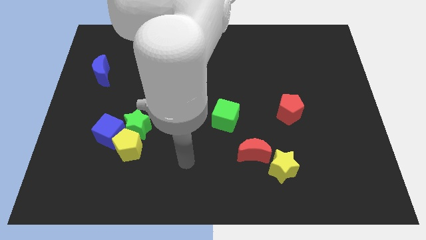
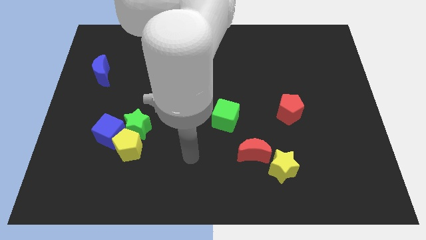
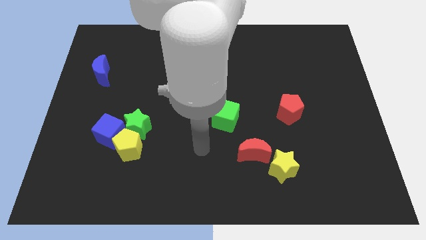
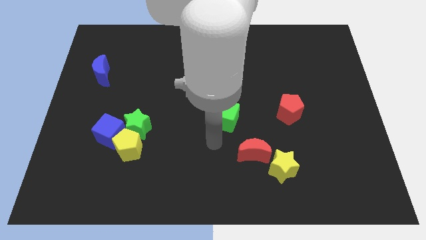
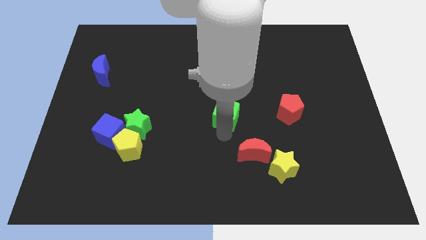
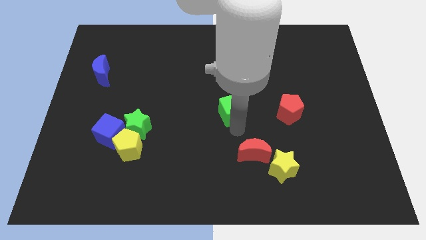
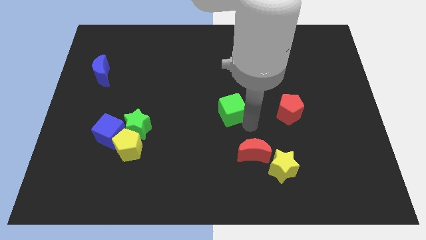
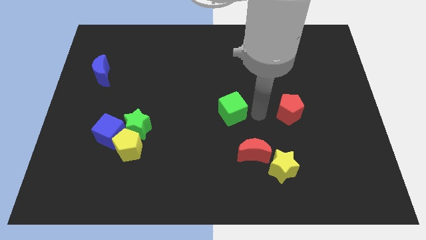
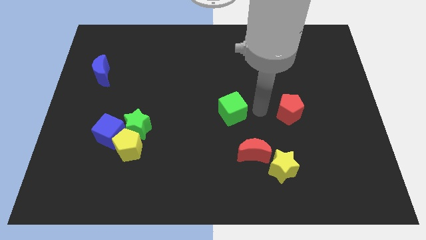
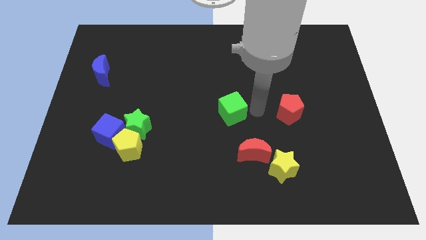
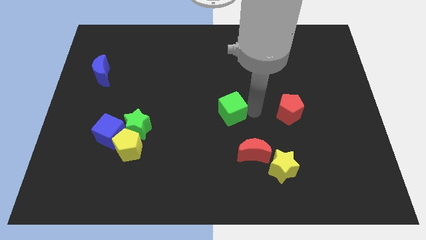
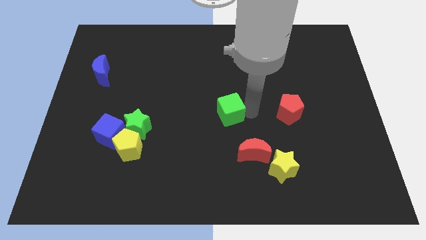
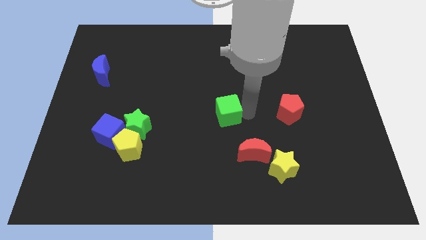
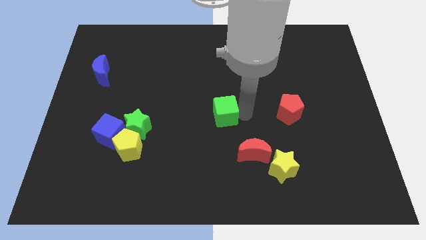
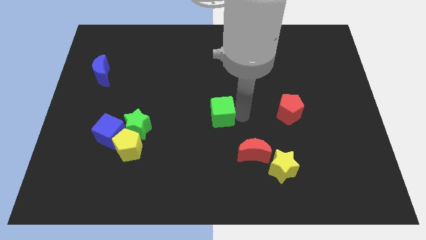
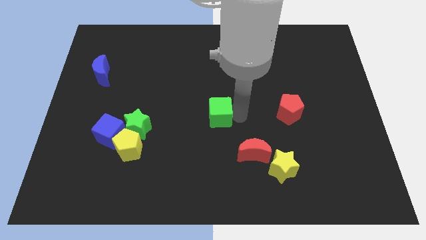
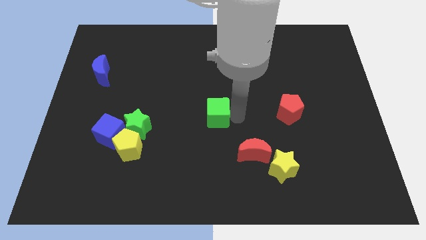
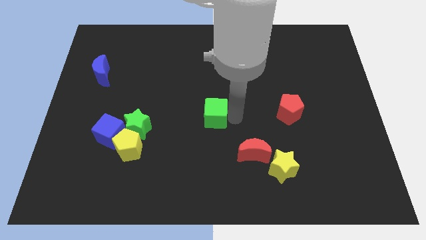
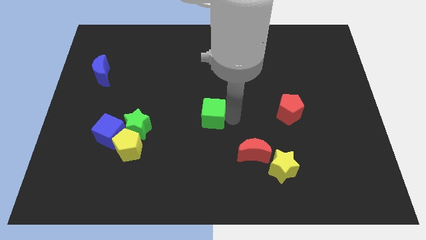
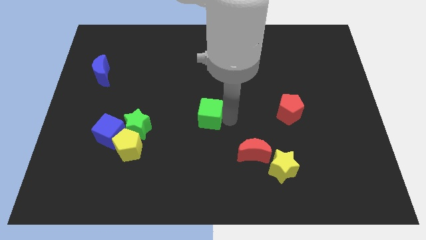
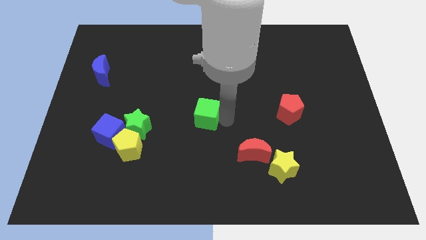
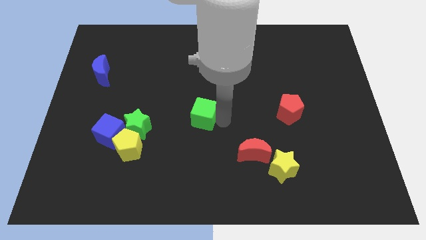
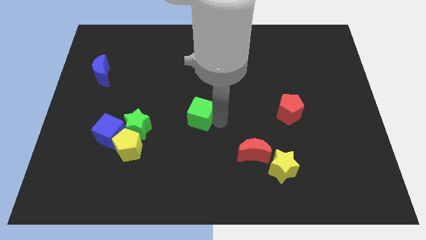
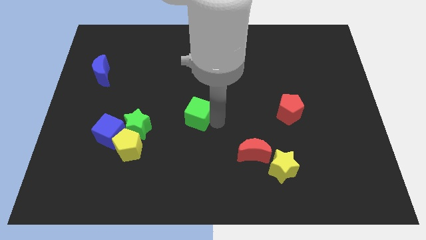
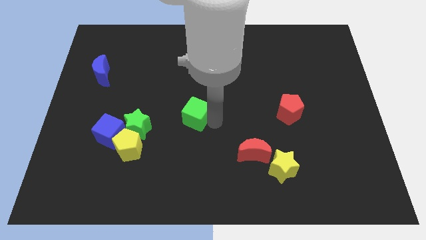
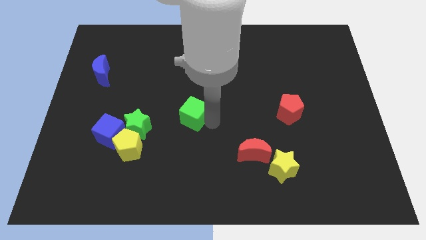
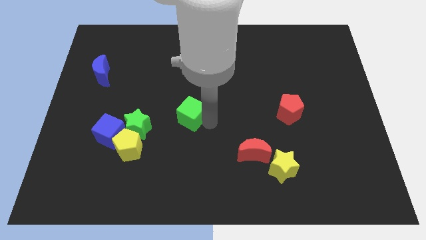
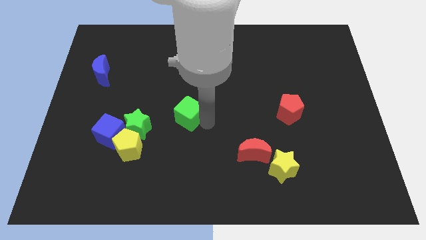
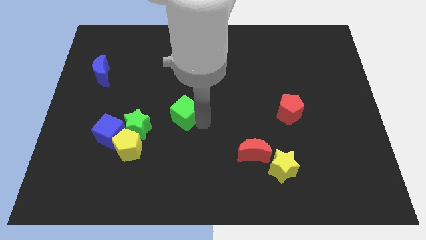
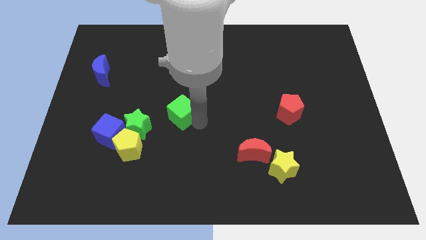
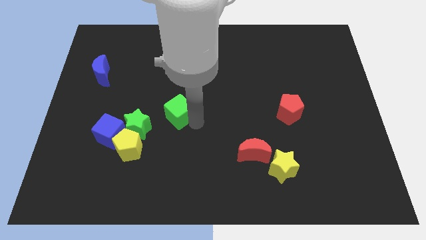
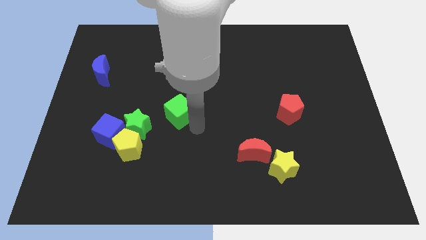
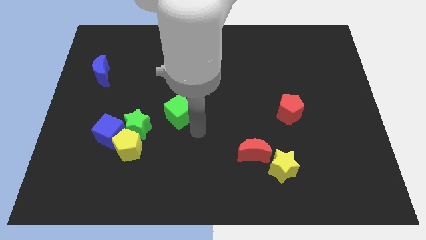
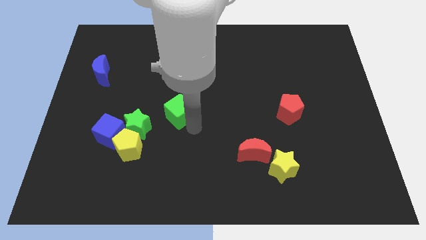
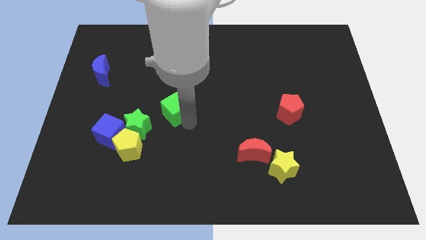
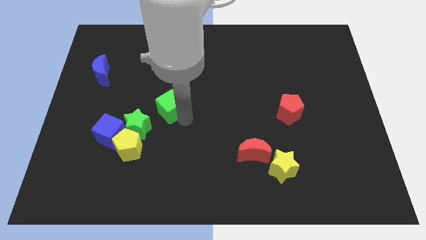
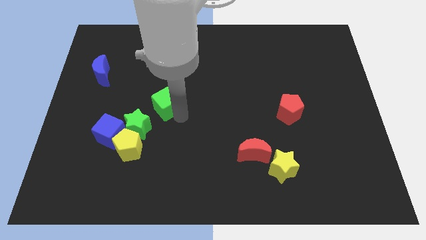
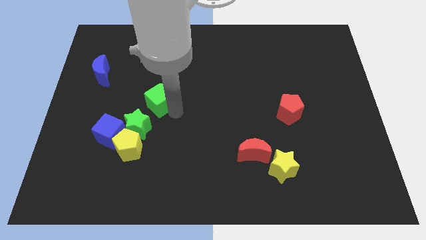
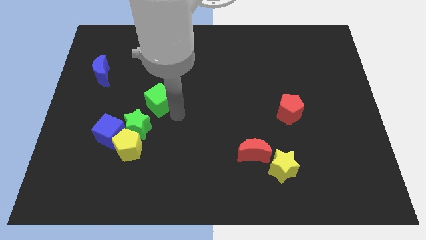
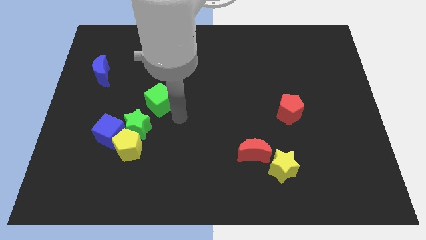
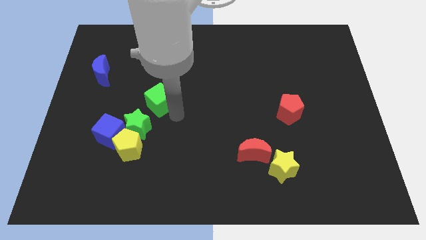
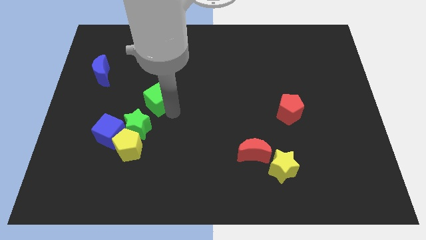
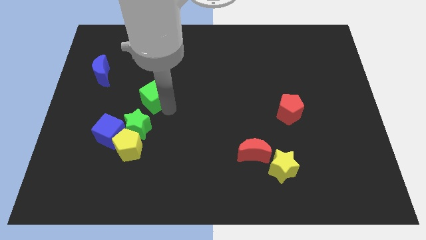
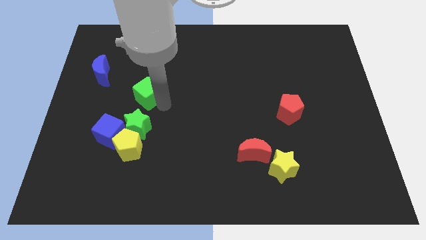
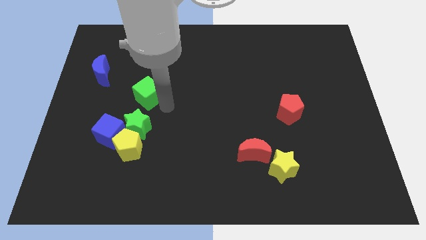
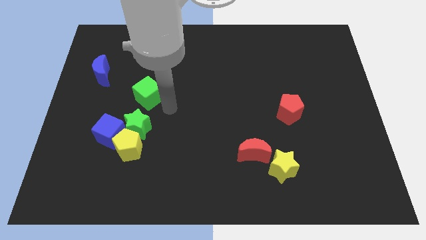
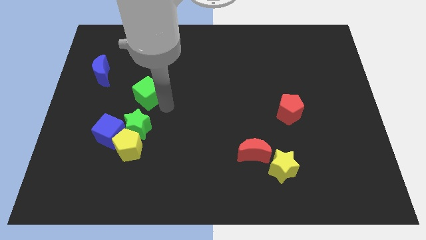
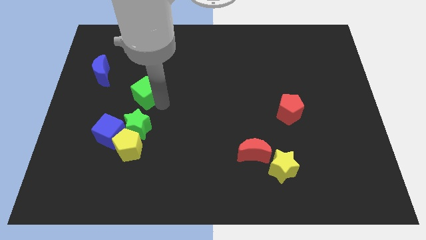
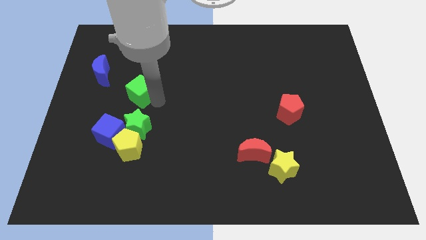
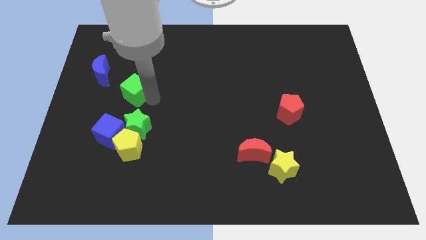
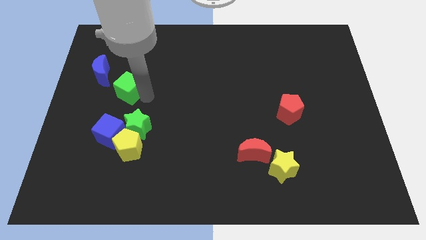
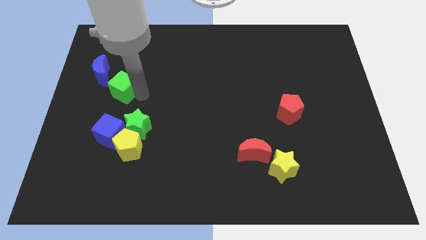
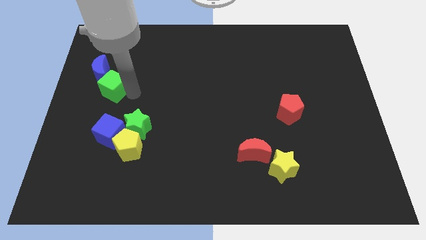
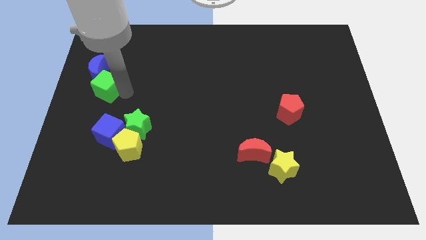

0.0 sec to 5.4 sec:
push the green cube to the blue moon
